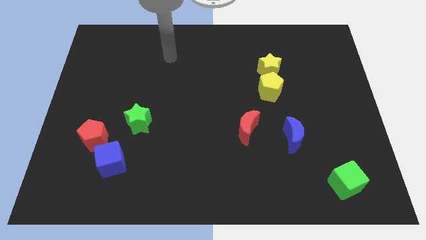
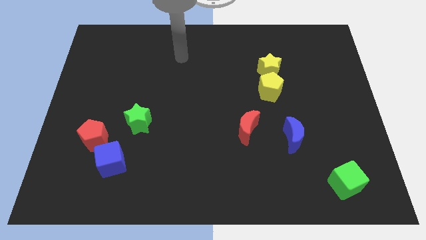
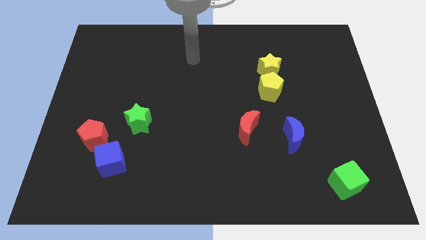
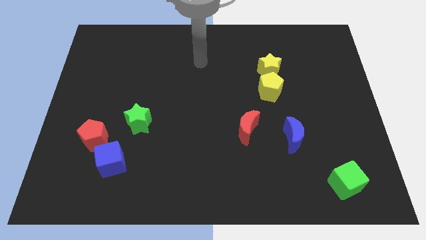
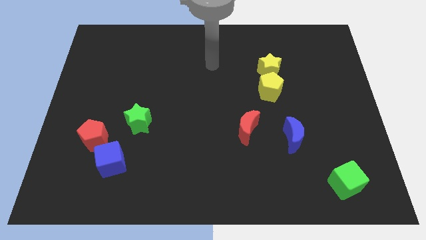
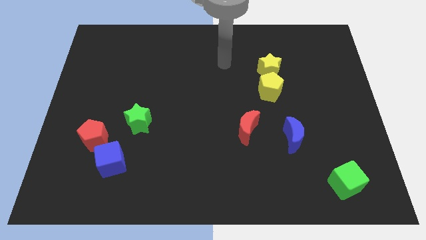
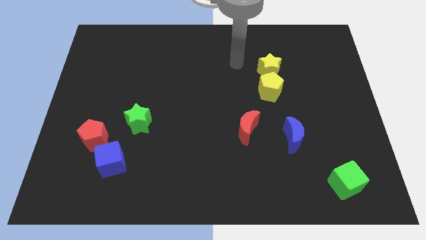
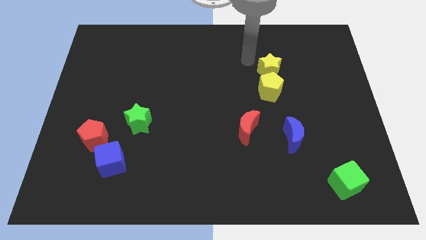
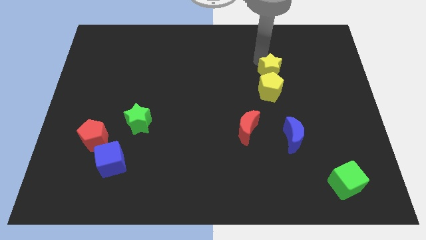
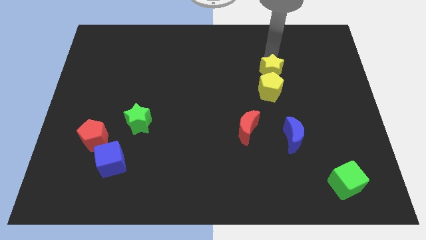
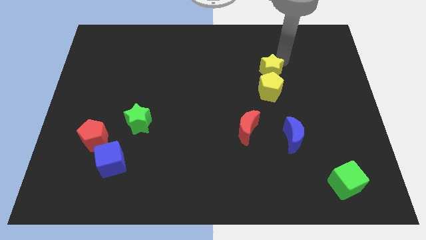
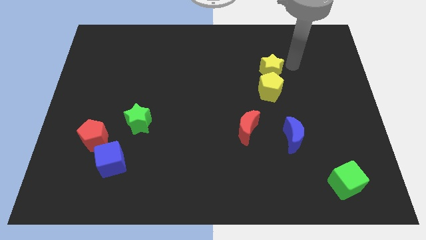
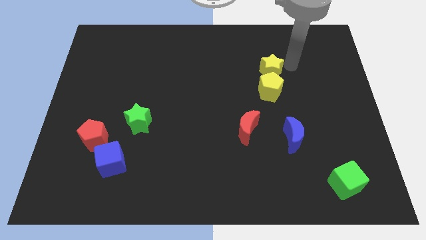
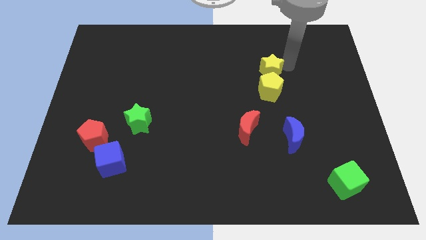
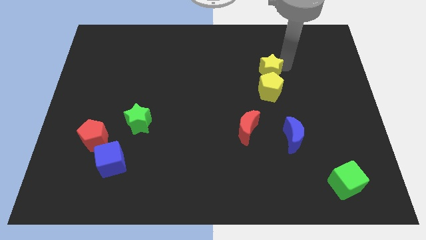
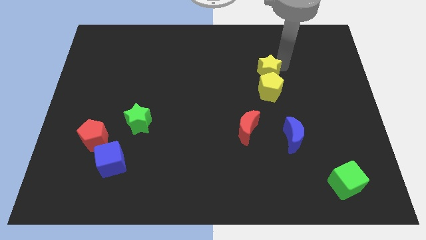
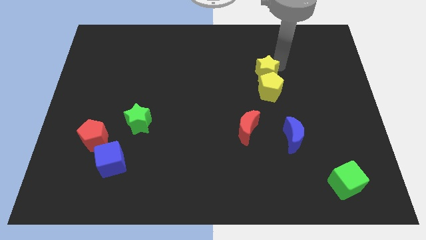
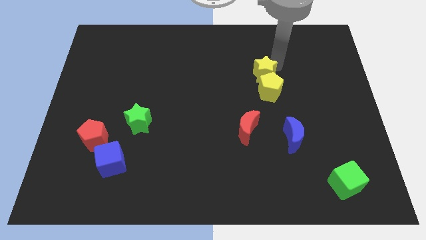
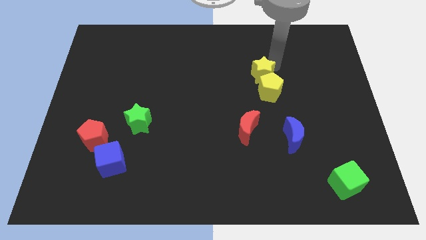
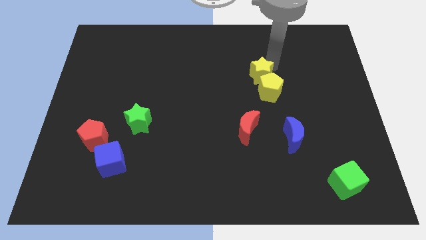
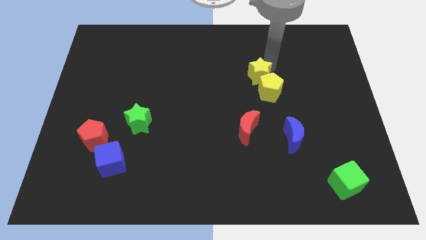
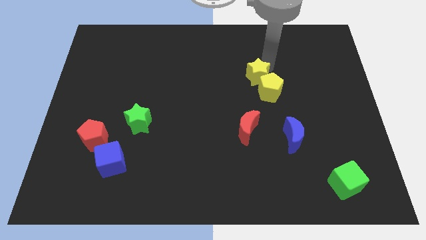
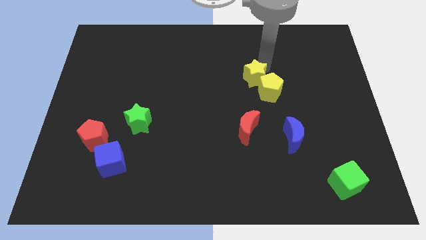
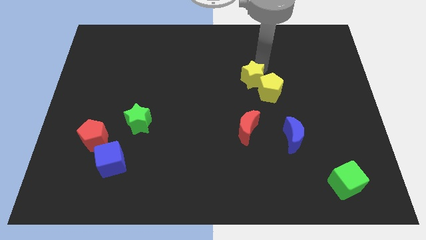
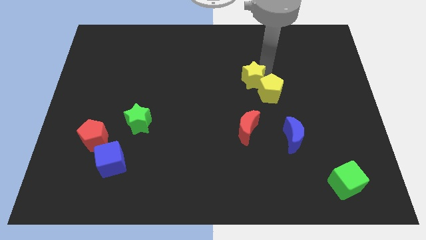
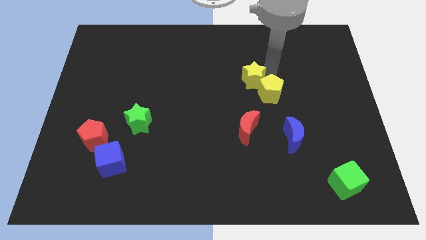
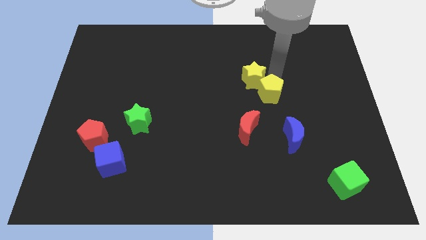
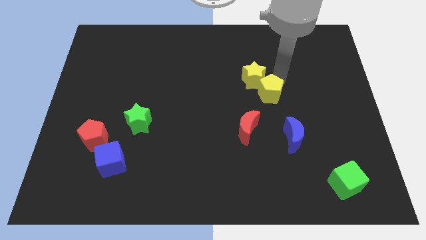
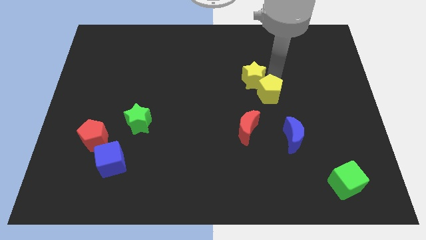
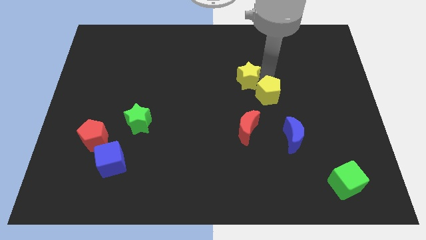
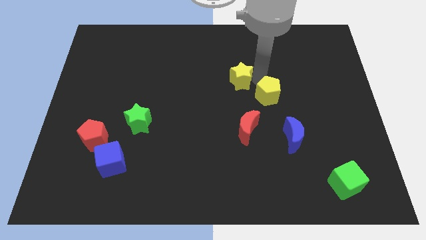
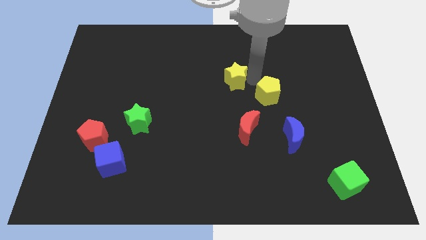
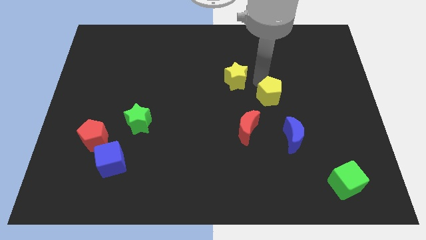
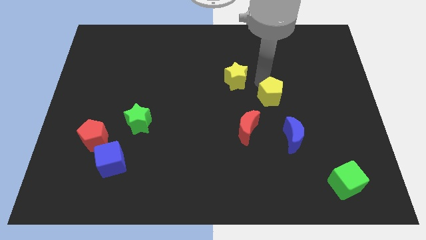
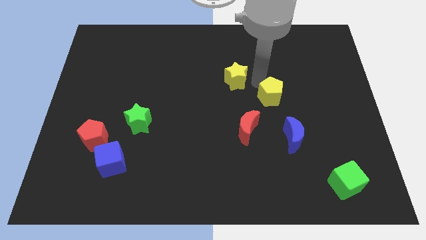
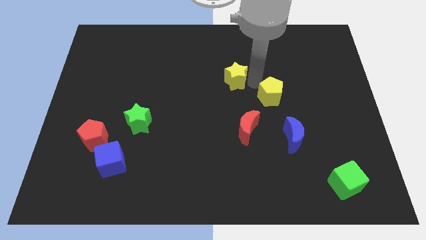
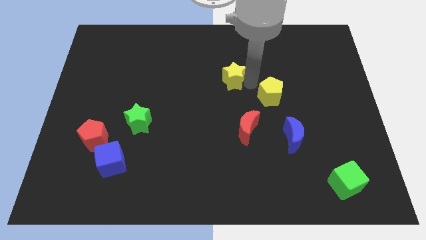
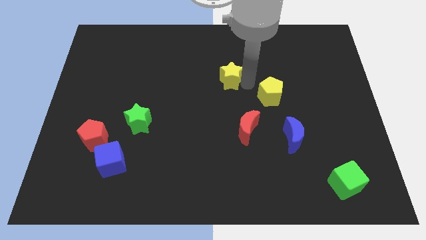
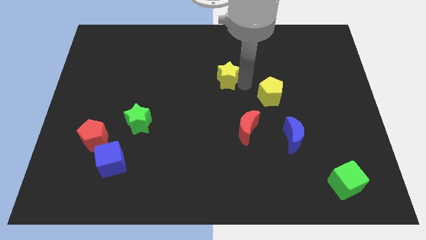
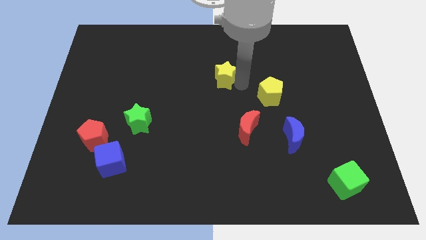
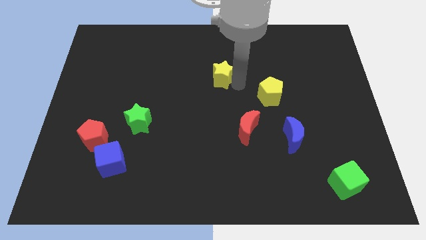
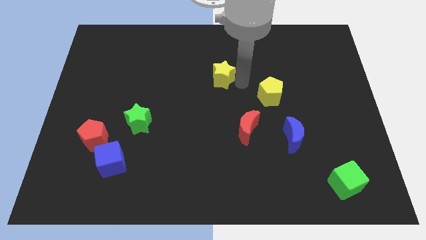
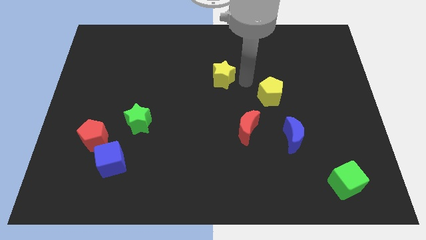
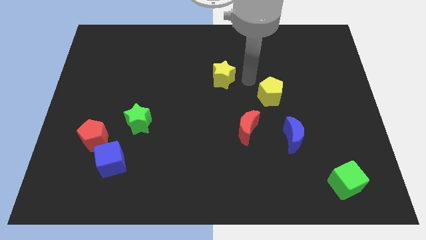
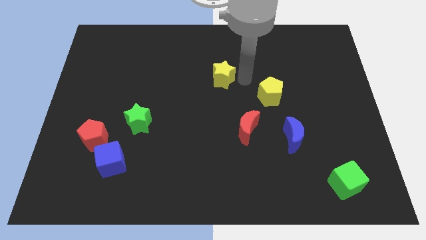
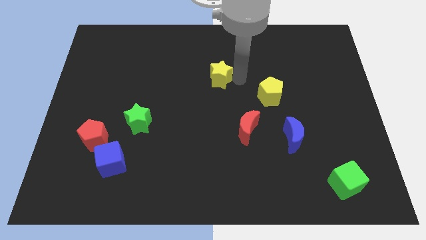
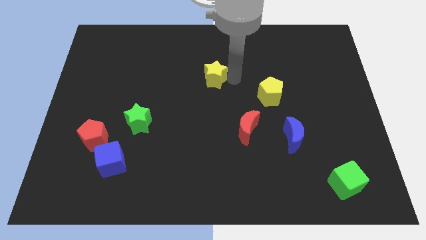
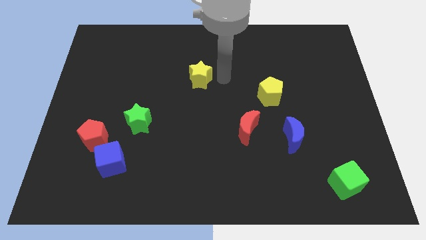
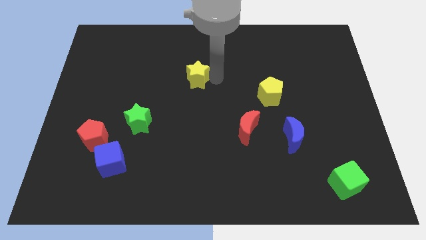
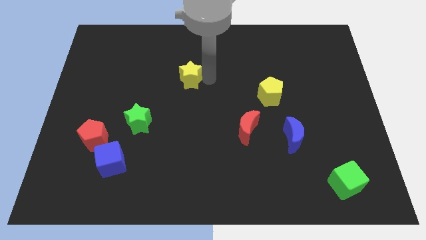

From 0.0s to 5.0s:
move the yellow star to the left

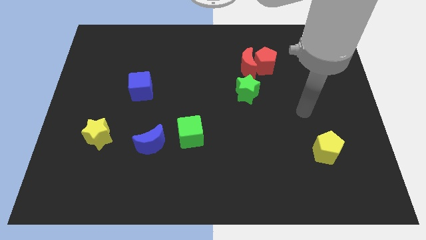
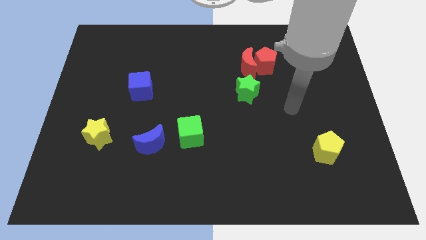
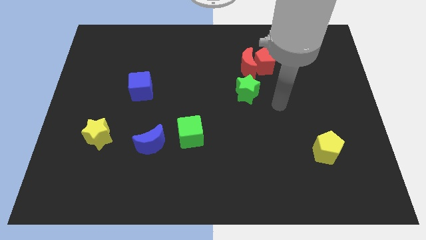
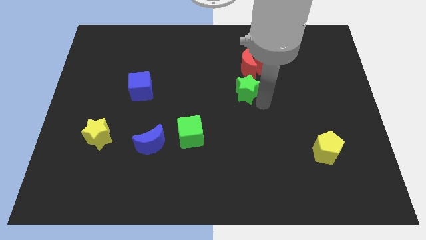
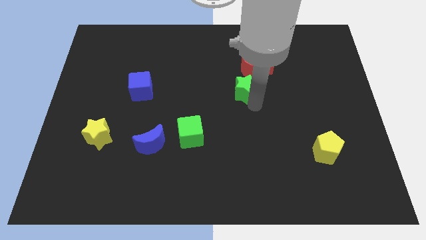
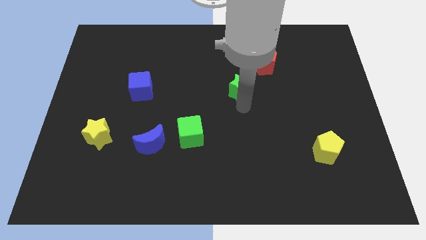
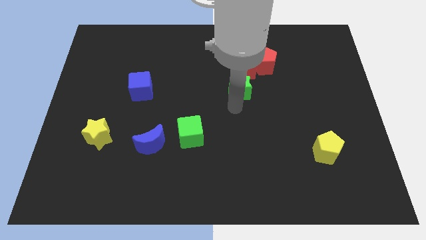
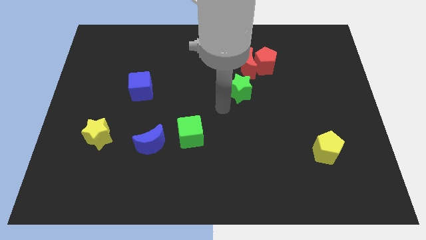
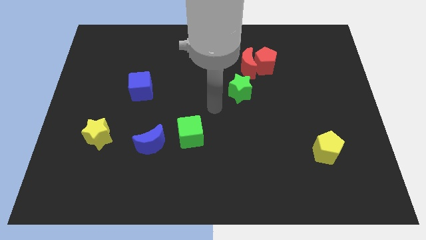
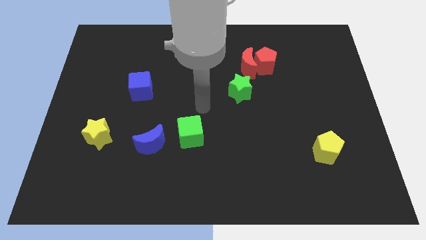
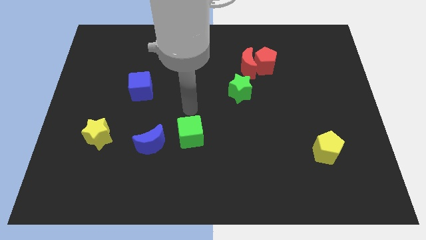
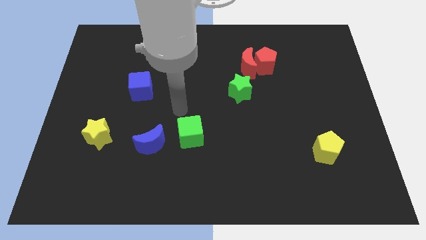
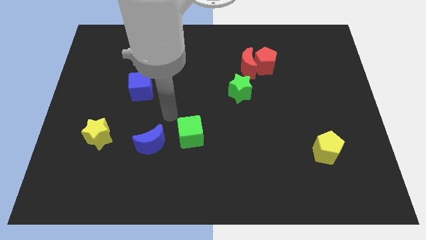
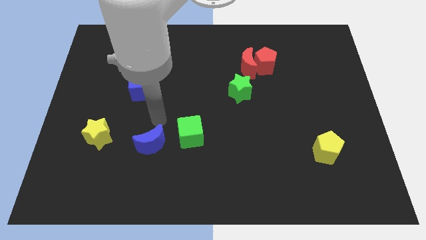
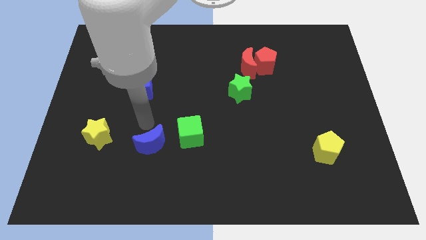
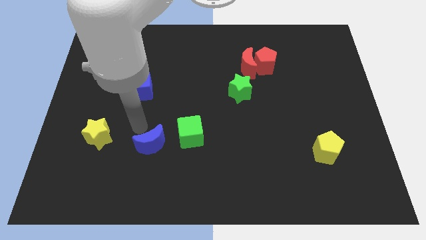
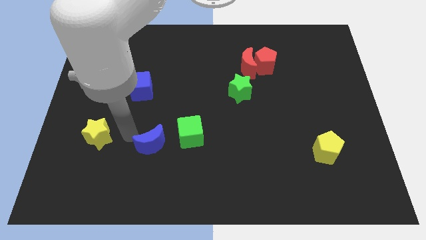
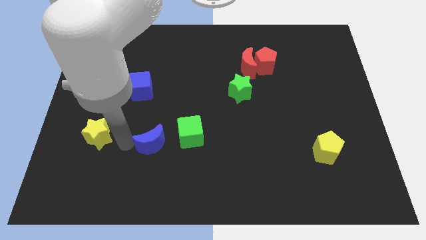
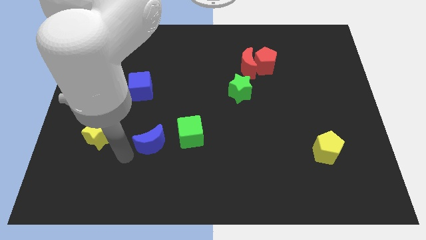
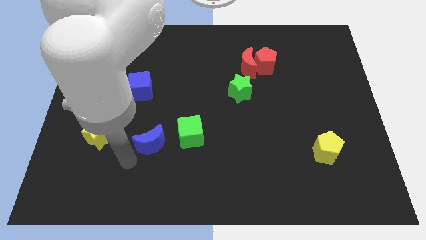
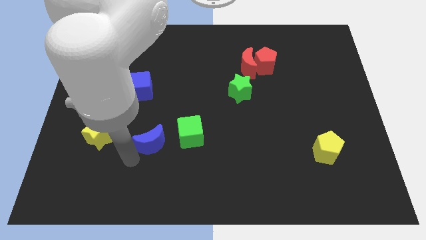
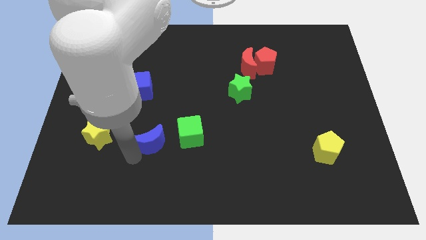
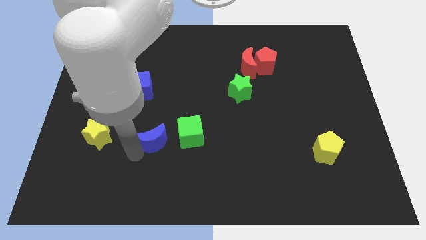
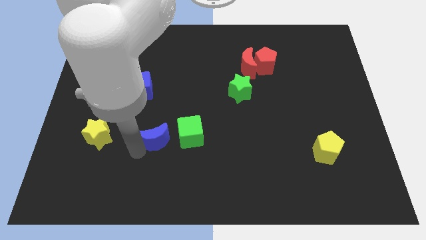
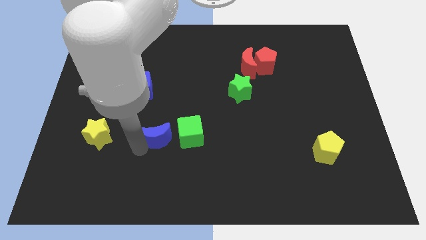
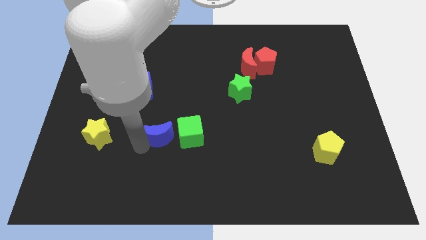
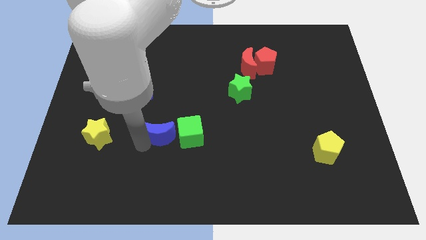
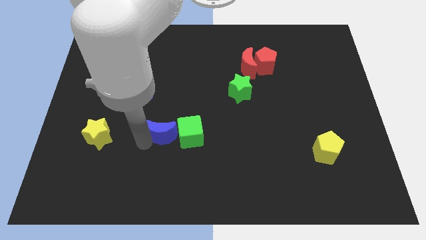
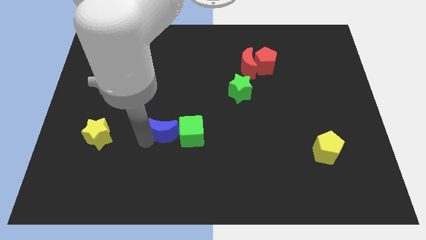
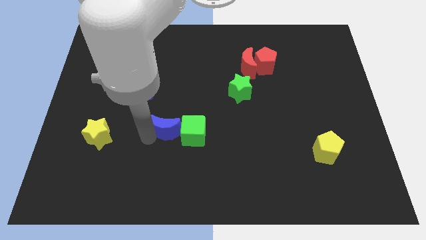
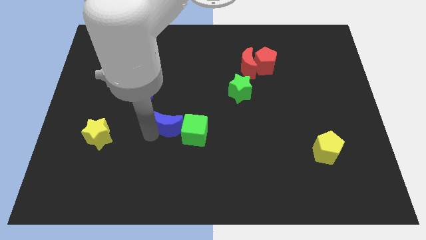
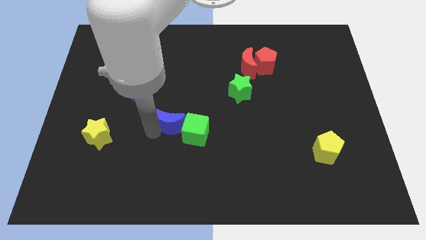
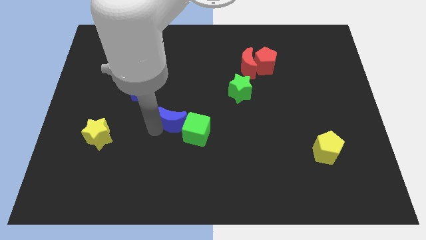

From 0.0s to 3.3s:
slide the blue moon a little bit upwards and right diagonally
